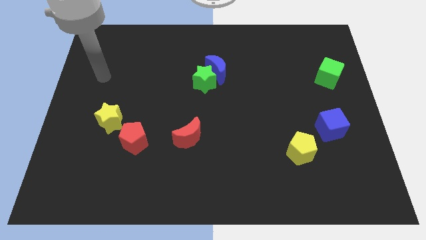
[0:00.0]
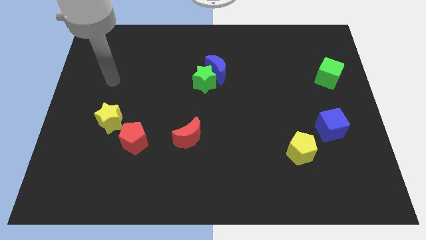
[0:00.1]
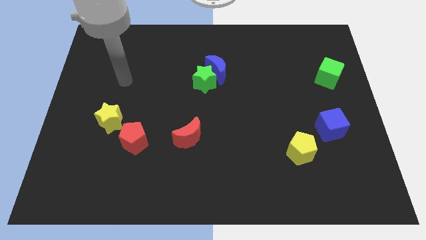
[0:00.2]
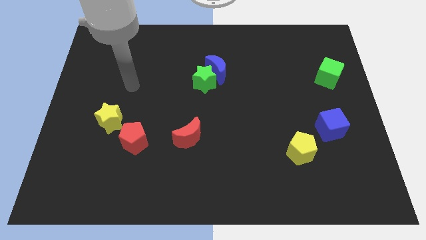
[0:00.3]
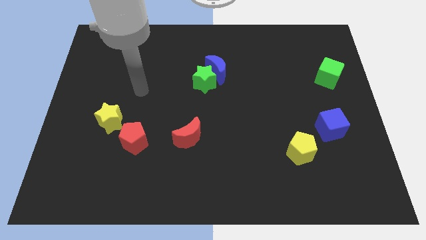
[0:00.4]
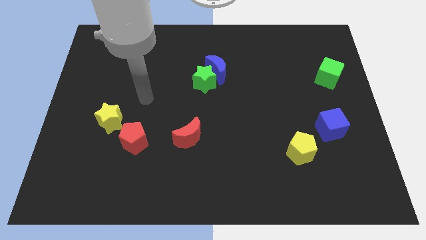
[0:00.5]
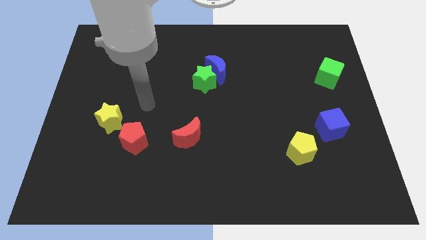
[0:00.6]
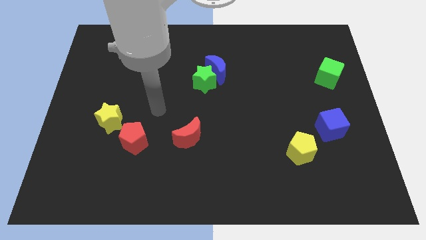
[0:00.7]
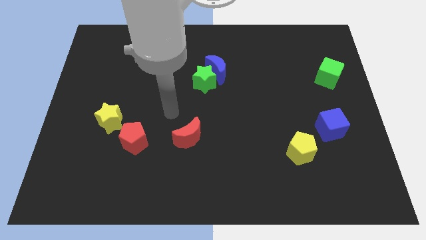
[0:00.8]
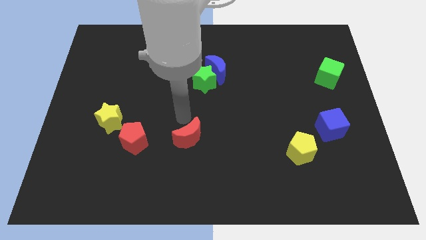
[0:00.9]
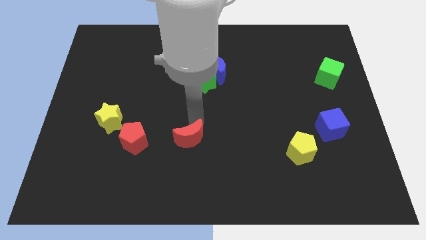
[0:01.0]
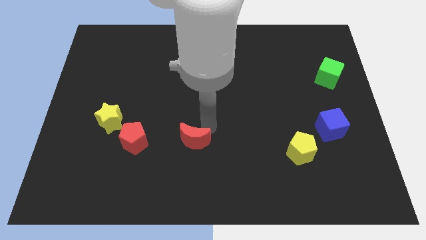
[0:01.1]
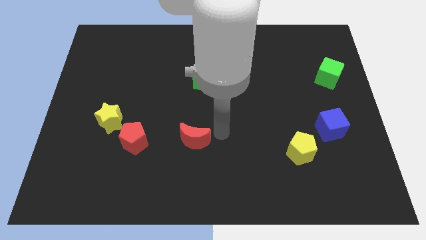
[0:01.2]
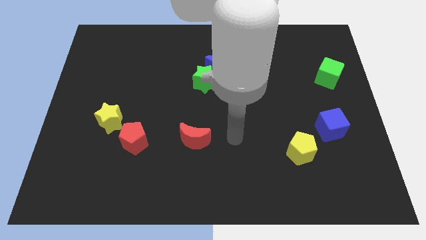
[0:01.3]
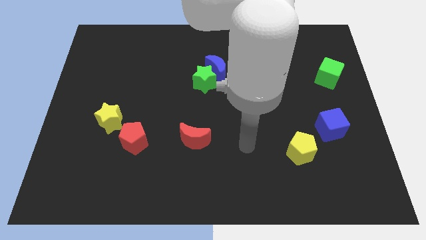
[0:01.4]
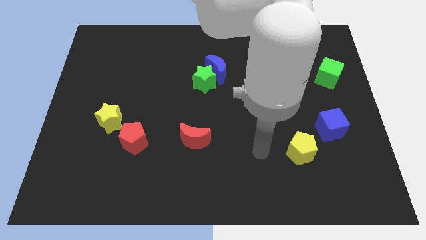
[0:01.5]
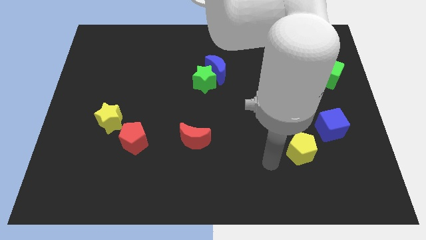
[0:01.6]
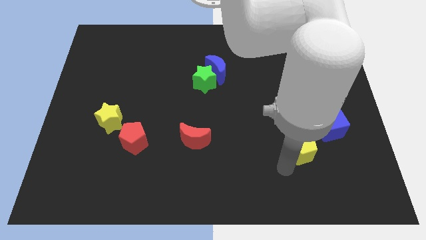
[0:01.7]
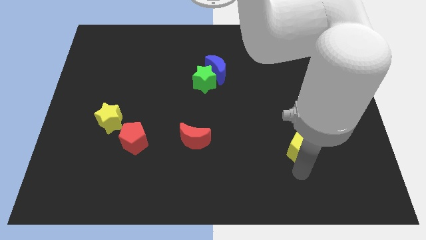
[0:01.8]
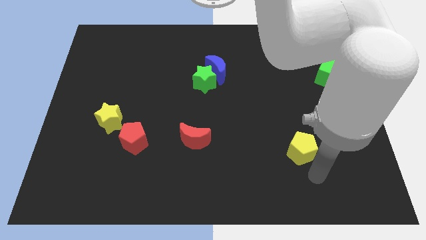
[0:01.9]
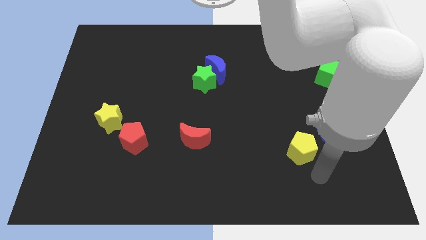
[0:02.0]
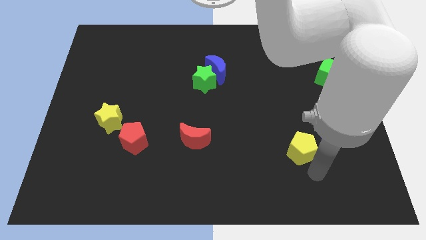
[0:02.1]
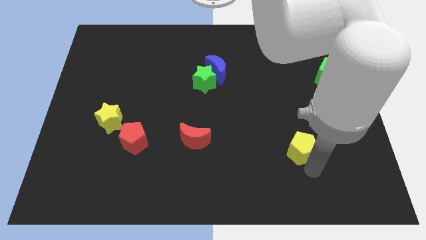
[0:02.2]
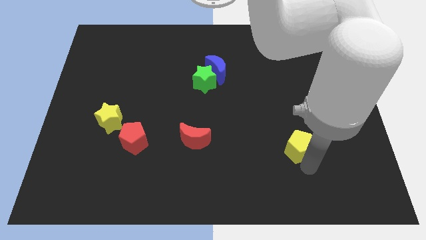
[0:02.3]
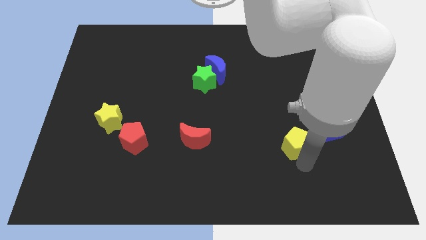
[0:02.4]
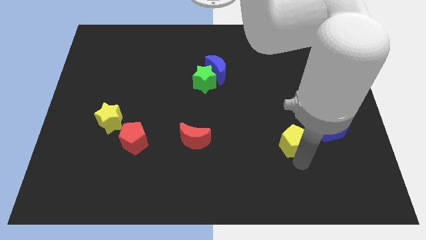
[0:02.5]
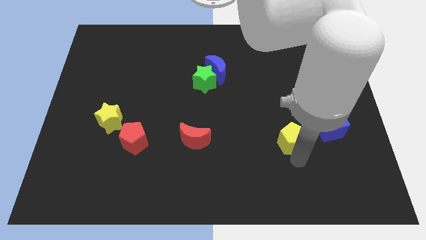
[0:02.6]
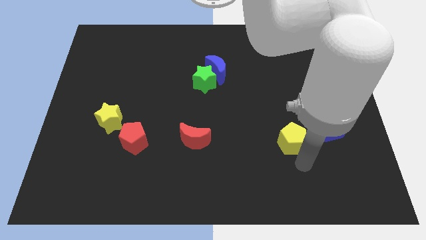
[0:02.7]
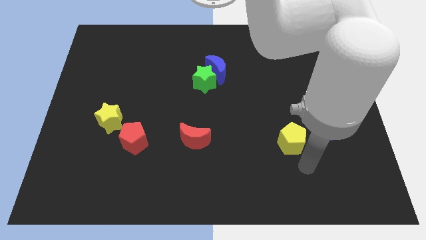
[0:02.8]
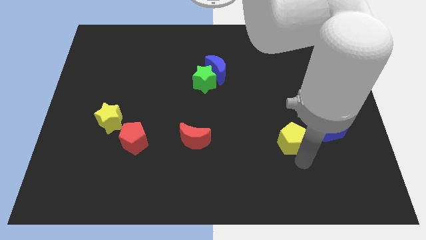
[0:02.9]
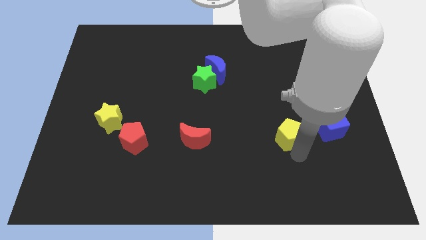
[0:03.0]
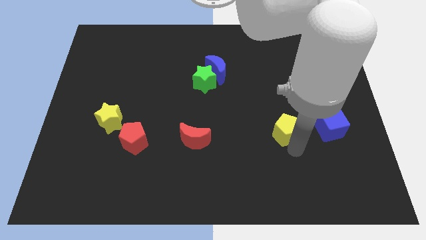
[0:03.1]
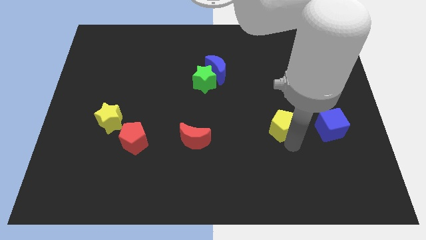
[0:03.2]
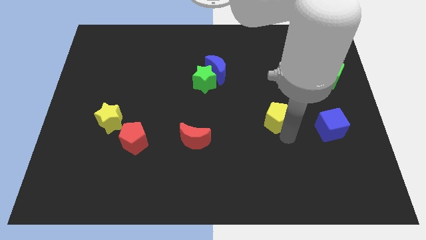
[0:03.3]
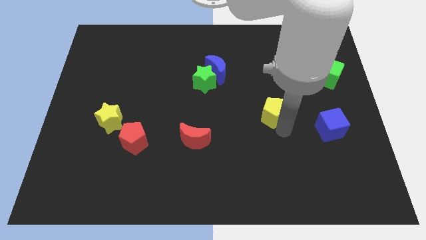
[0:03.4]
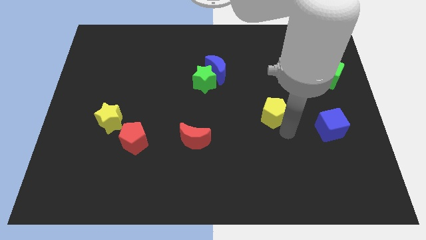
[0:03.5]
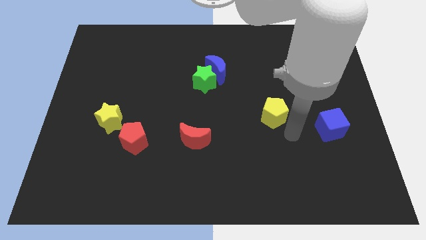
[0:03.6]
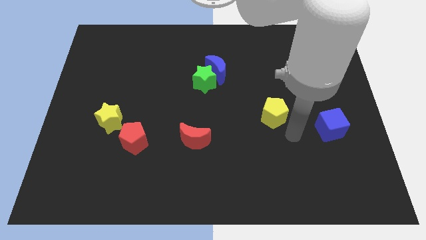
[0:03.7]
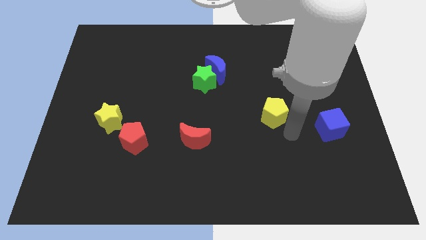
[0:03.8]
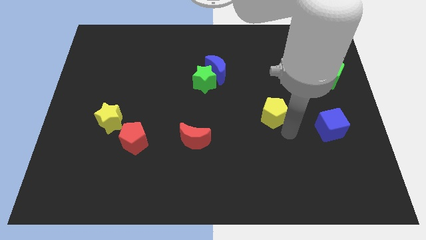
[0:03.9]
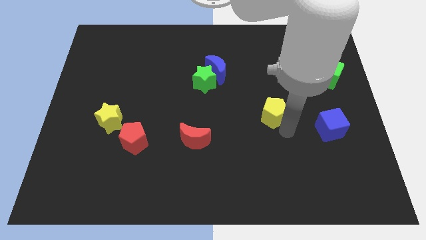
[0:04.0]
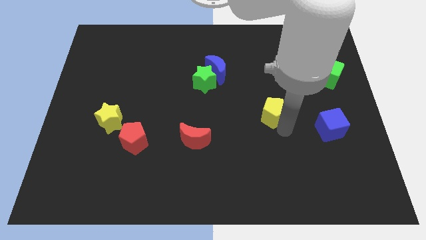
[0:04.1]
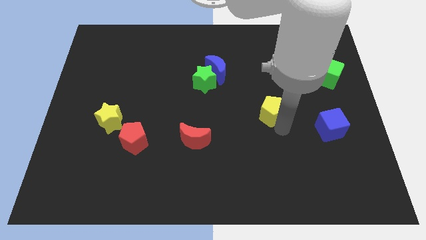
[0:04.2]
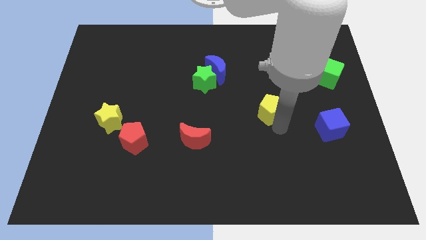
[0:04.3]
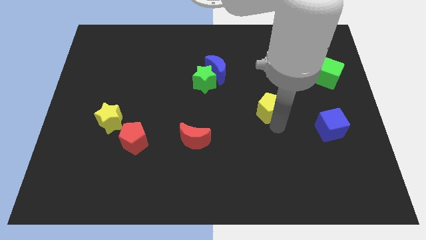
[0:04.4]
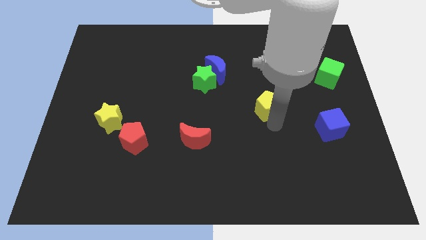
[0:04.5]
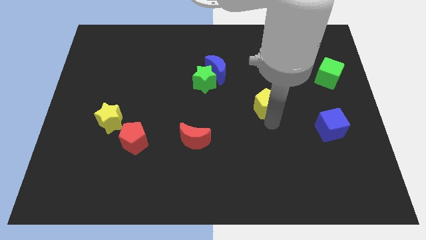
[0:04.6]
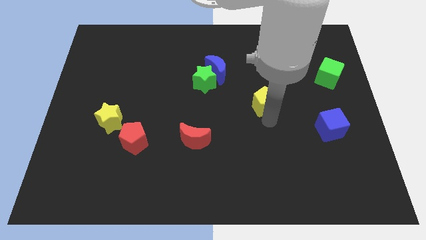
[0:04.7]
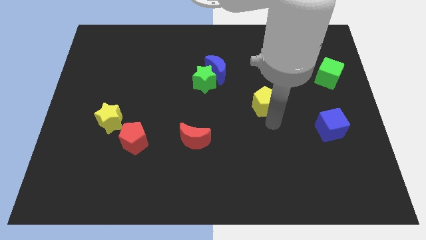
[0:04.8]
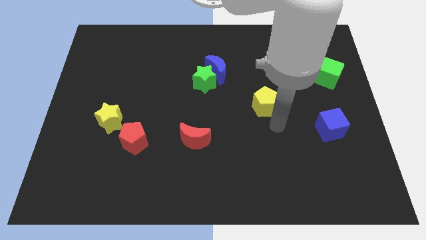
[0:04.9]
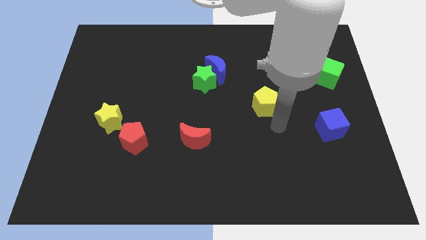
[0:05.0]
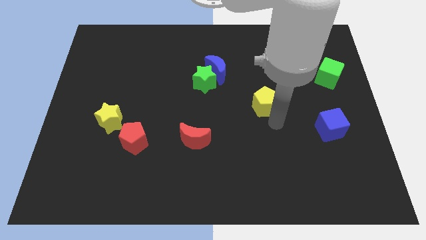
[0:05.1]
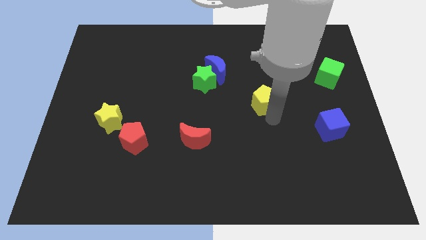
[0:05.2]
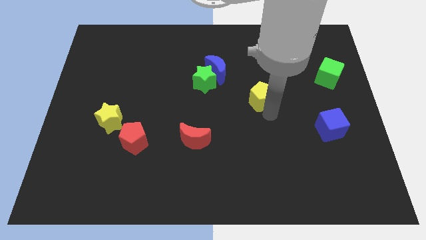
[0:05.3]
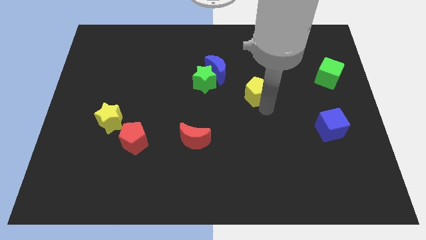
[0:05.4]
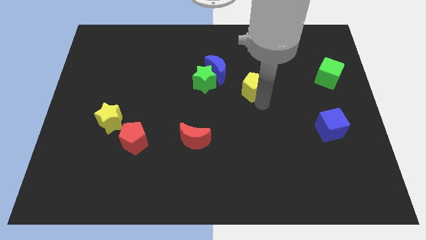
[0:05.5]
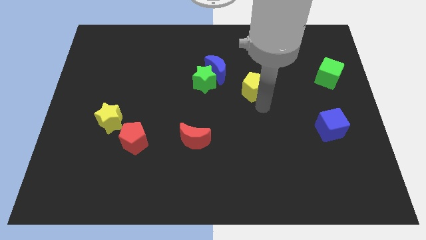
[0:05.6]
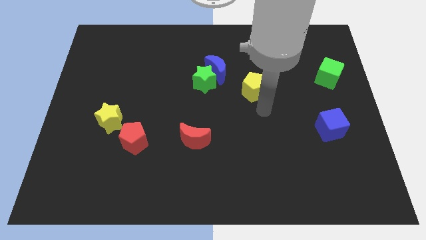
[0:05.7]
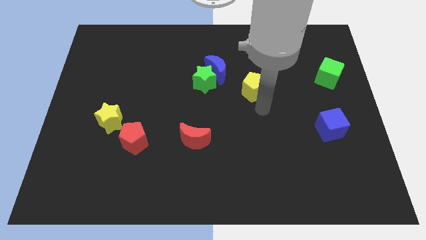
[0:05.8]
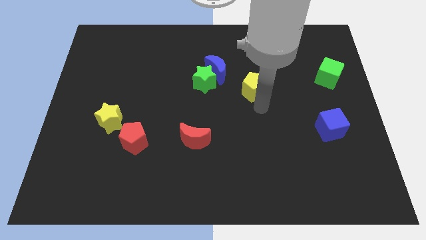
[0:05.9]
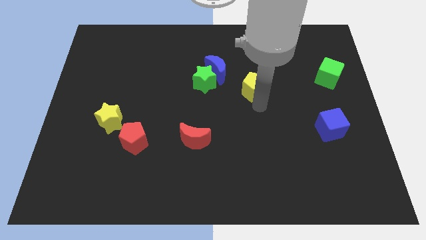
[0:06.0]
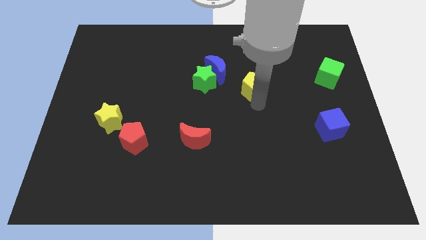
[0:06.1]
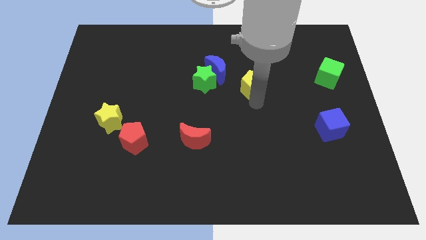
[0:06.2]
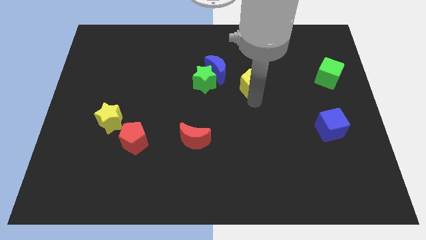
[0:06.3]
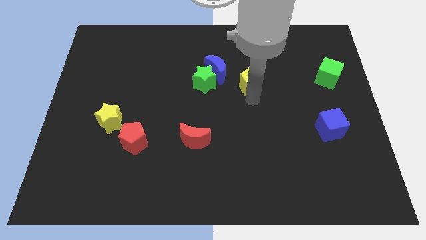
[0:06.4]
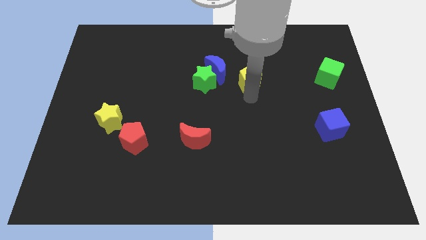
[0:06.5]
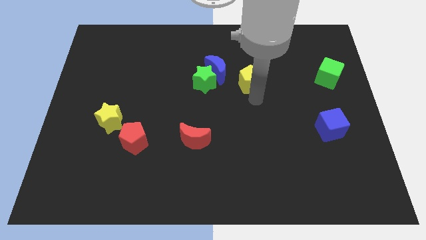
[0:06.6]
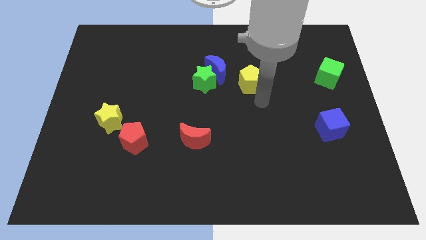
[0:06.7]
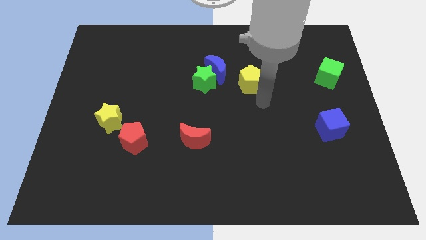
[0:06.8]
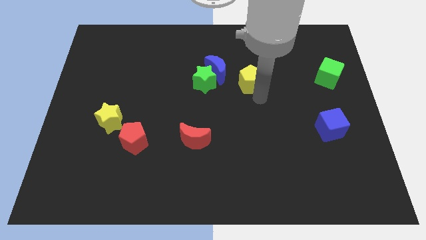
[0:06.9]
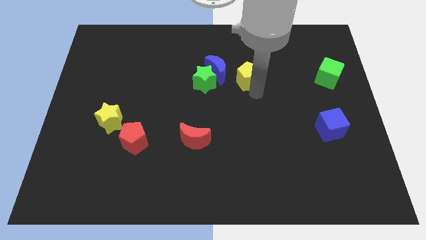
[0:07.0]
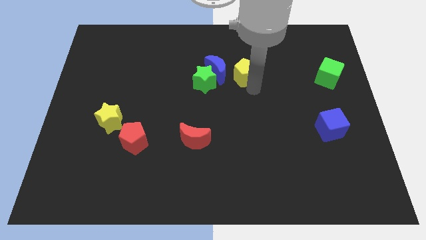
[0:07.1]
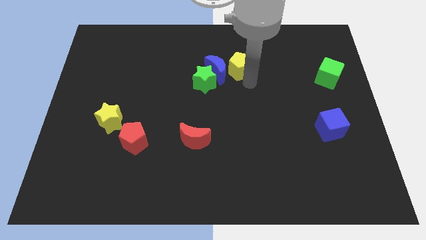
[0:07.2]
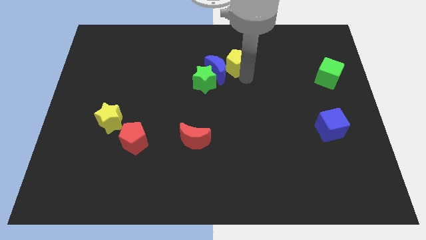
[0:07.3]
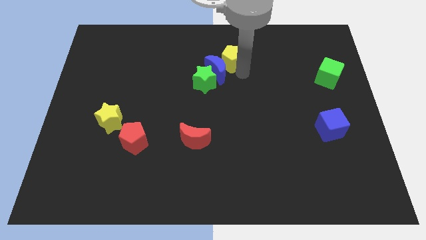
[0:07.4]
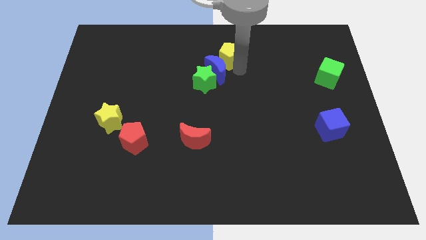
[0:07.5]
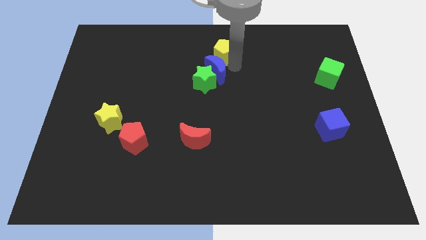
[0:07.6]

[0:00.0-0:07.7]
slide the yellow pentagon to the towards your base

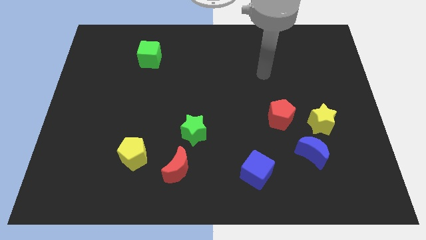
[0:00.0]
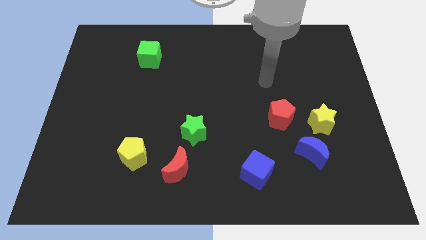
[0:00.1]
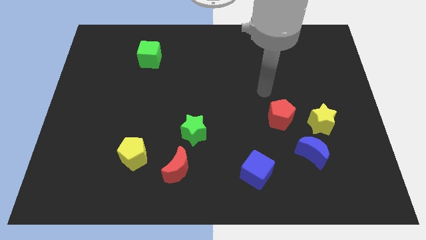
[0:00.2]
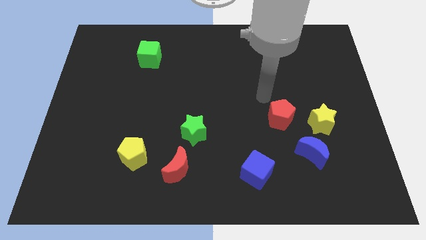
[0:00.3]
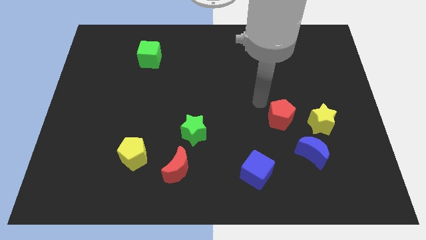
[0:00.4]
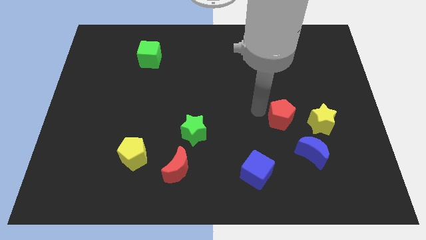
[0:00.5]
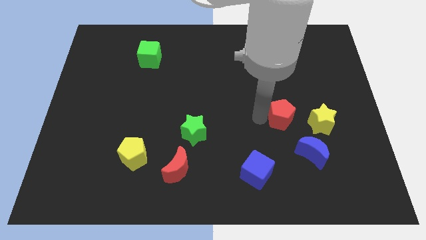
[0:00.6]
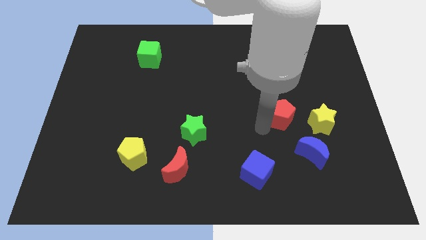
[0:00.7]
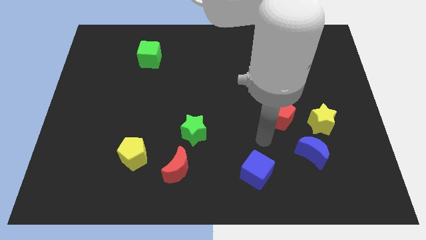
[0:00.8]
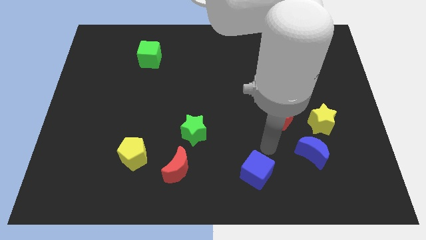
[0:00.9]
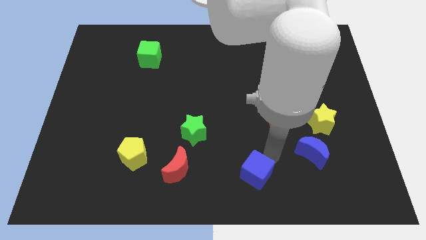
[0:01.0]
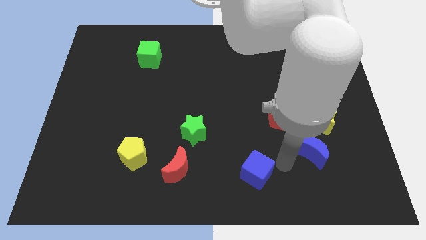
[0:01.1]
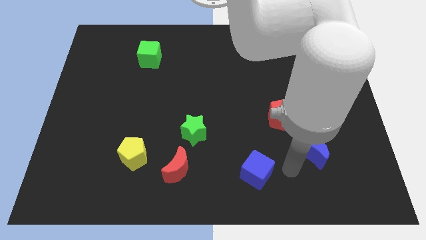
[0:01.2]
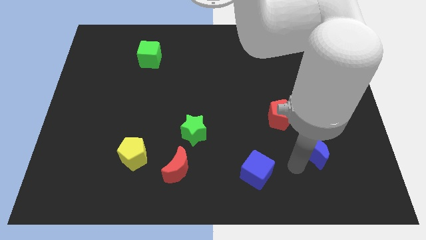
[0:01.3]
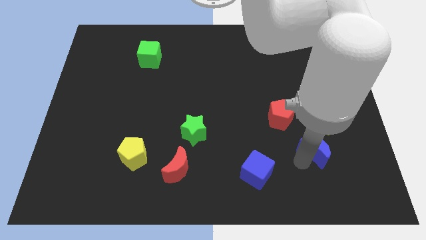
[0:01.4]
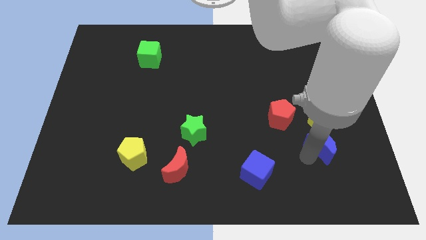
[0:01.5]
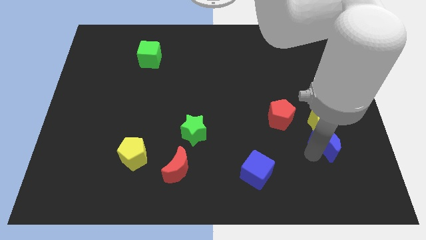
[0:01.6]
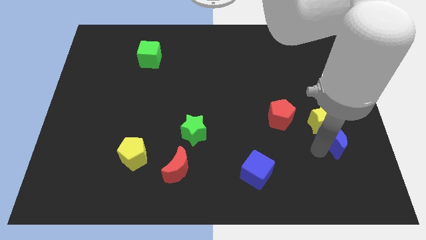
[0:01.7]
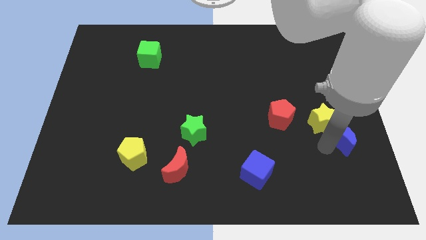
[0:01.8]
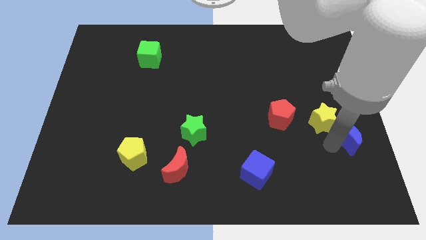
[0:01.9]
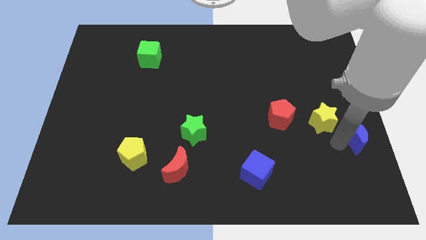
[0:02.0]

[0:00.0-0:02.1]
slide the blue moon to the right side of the board
